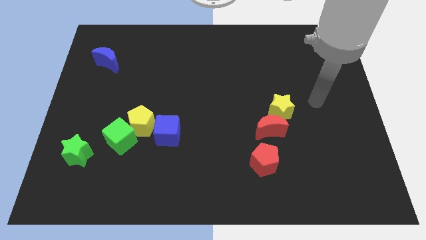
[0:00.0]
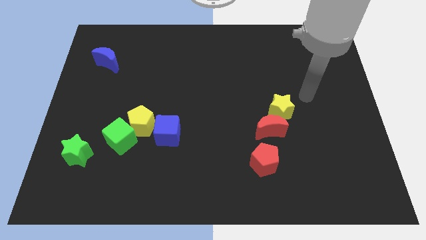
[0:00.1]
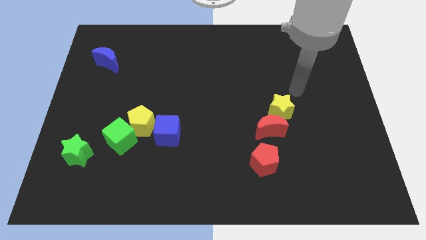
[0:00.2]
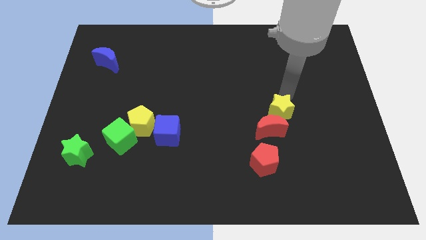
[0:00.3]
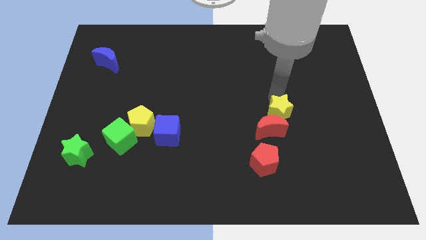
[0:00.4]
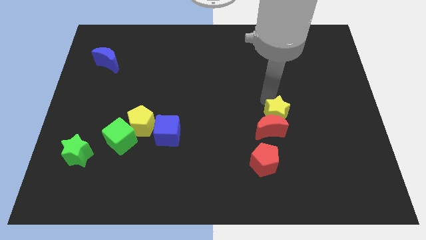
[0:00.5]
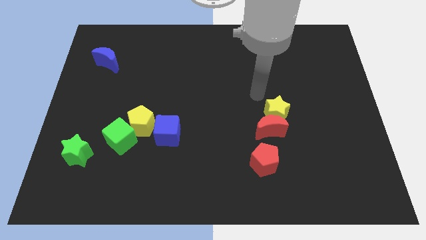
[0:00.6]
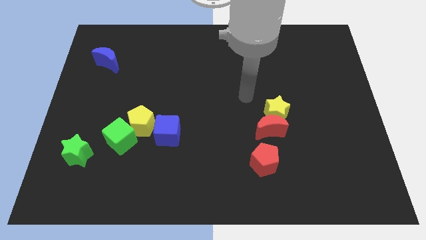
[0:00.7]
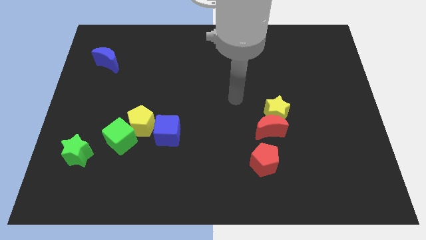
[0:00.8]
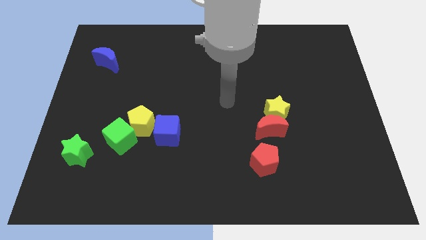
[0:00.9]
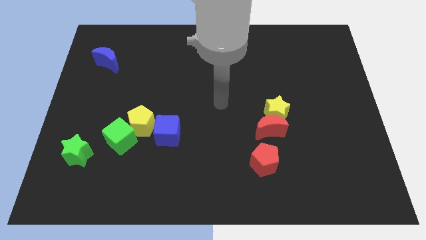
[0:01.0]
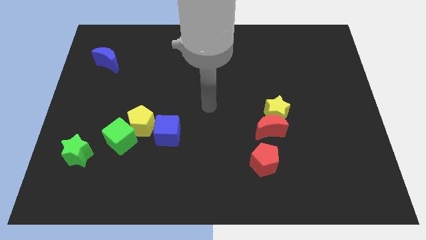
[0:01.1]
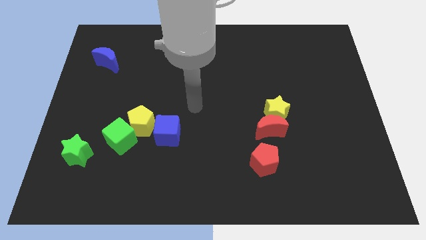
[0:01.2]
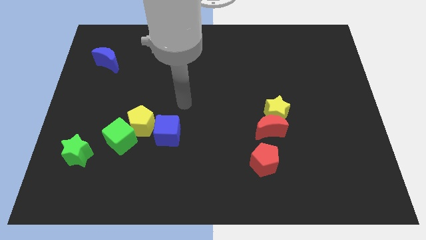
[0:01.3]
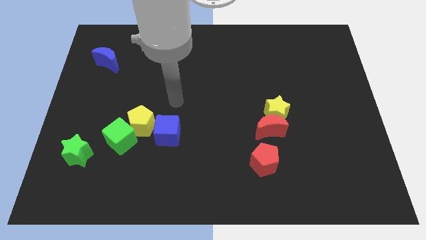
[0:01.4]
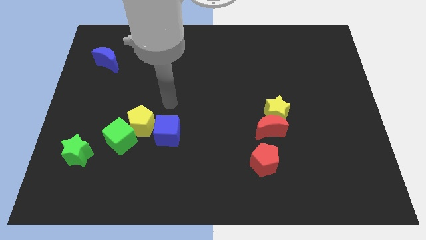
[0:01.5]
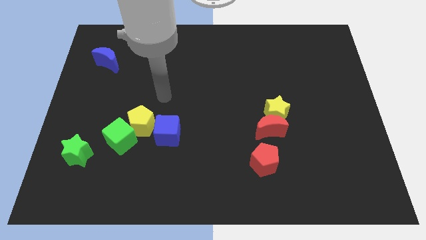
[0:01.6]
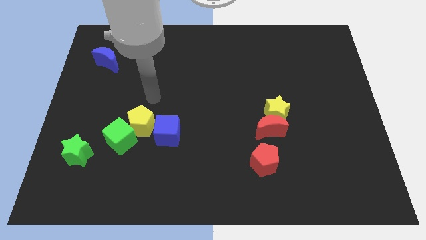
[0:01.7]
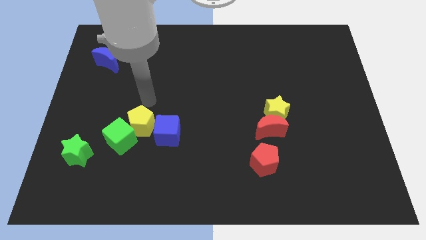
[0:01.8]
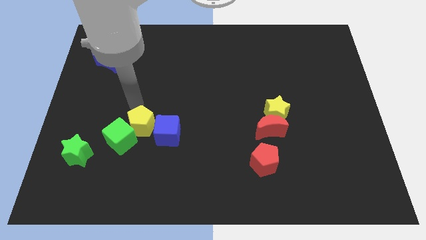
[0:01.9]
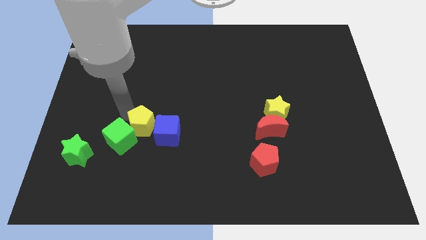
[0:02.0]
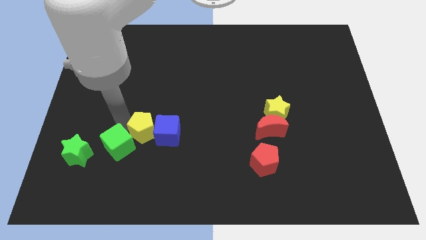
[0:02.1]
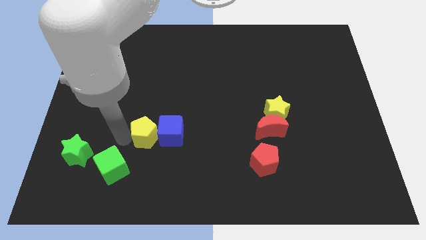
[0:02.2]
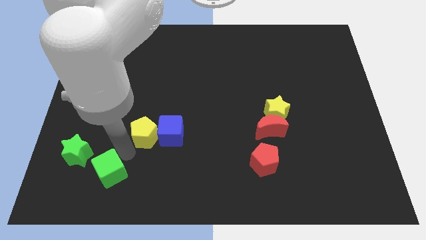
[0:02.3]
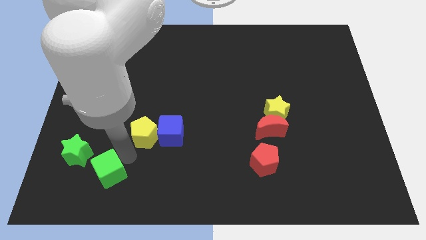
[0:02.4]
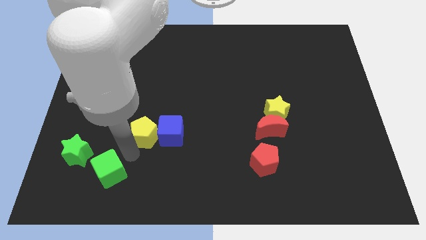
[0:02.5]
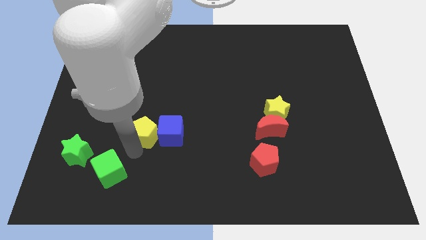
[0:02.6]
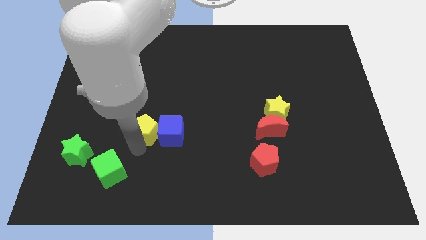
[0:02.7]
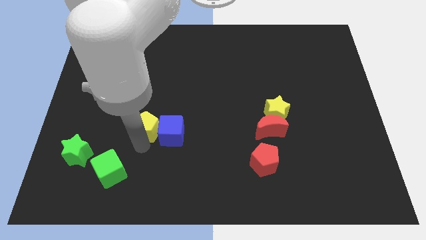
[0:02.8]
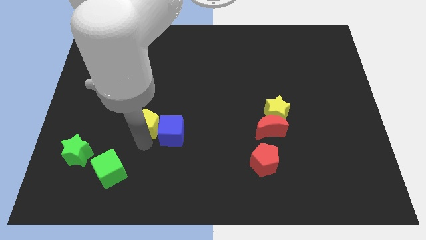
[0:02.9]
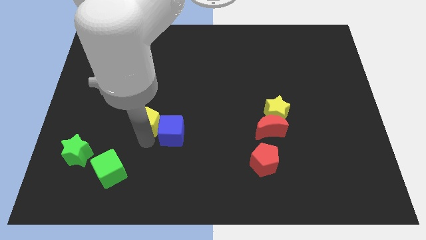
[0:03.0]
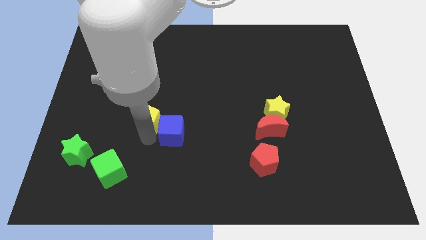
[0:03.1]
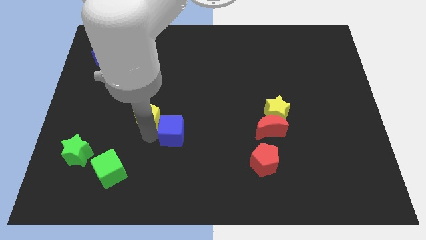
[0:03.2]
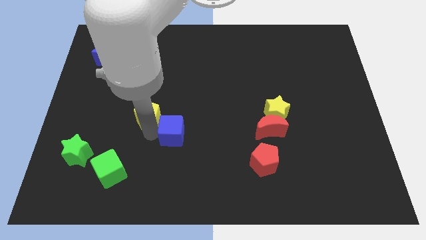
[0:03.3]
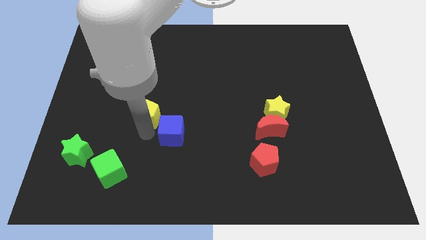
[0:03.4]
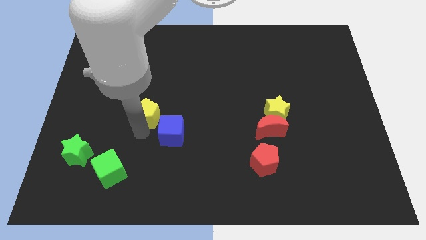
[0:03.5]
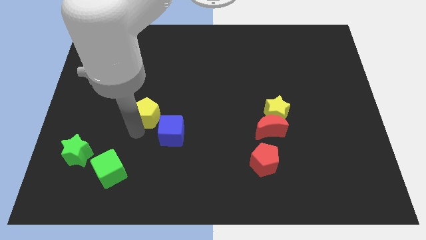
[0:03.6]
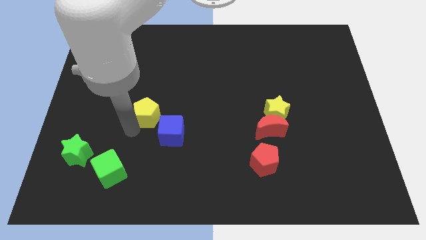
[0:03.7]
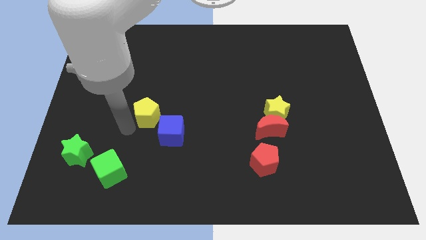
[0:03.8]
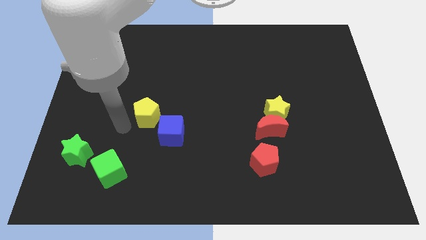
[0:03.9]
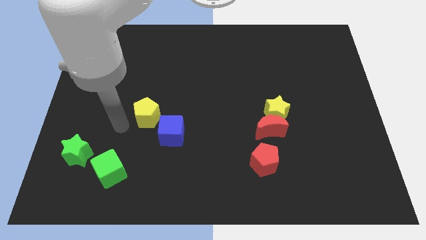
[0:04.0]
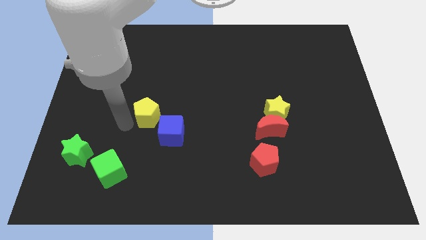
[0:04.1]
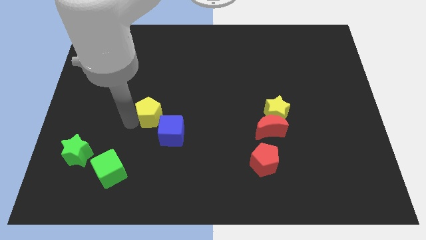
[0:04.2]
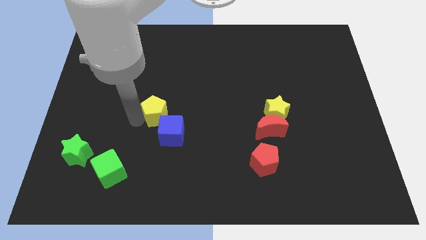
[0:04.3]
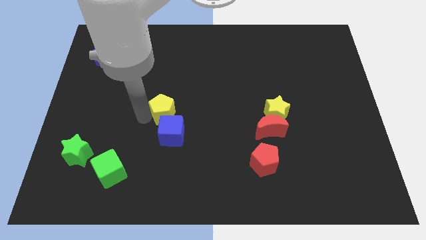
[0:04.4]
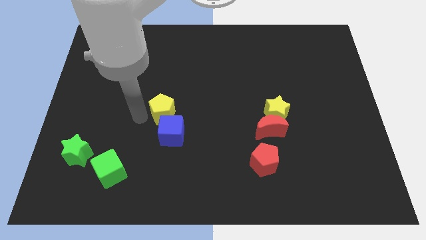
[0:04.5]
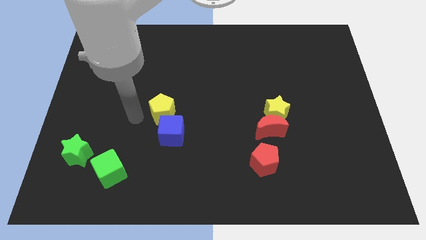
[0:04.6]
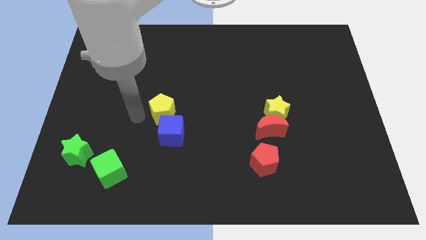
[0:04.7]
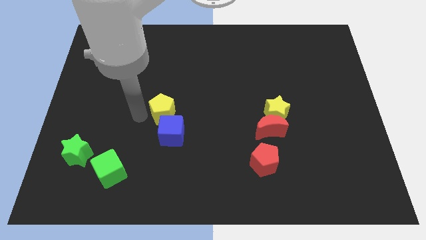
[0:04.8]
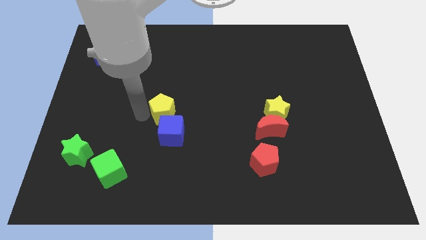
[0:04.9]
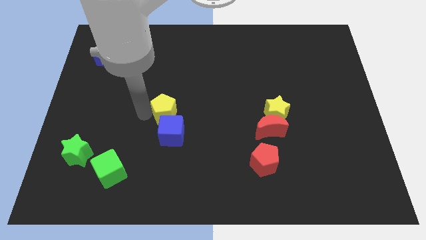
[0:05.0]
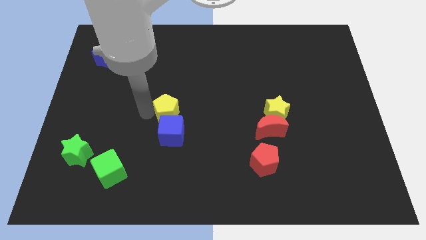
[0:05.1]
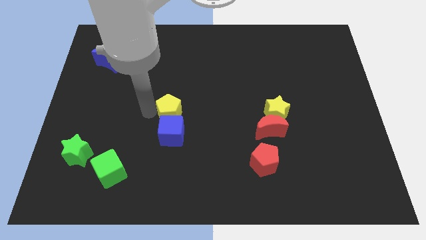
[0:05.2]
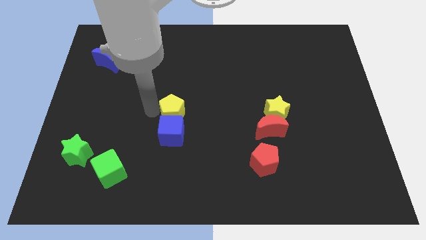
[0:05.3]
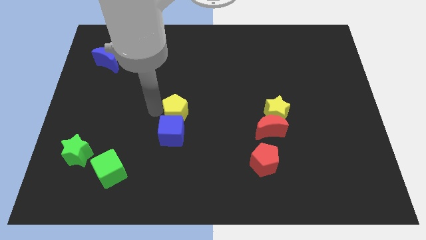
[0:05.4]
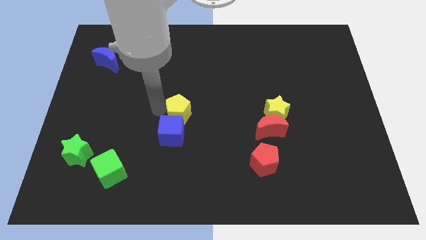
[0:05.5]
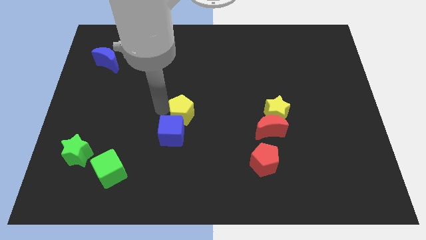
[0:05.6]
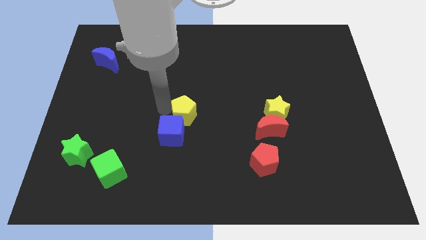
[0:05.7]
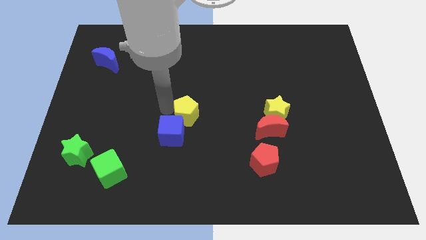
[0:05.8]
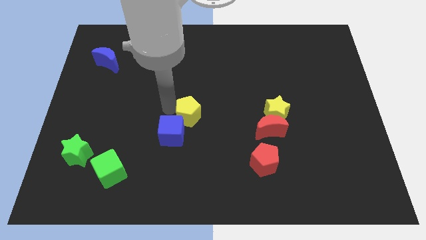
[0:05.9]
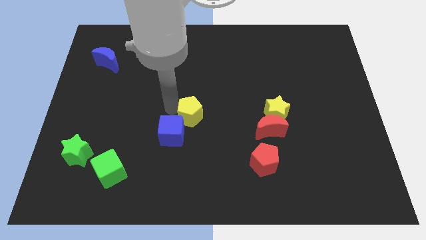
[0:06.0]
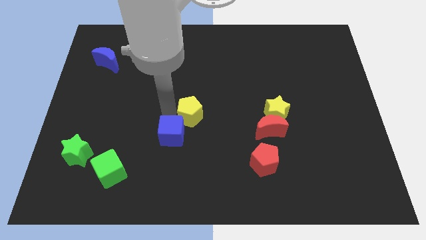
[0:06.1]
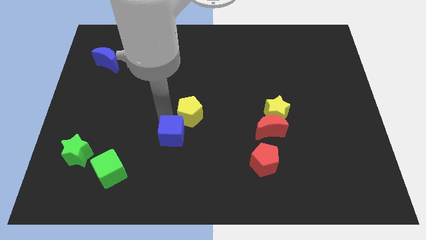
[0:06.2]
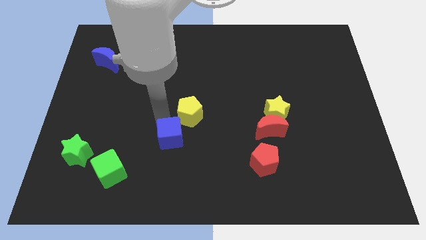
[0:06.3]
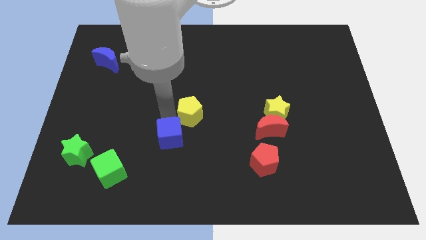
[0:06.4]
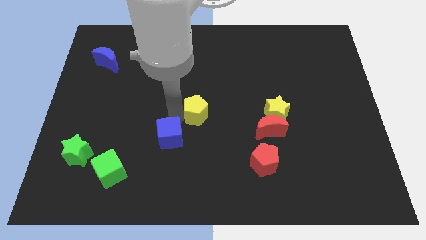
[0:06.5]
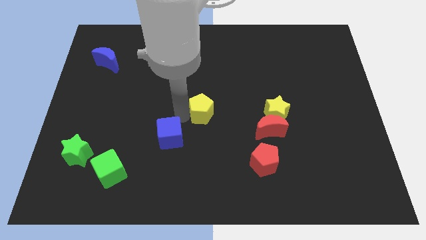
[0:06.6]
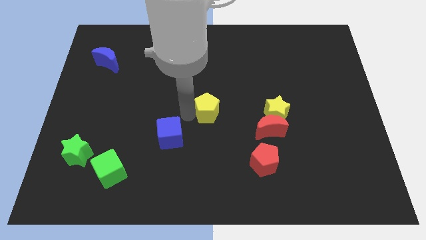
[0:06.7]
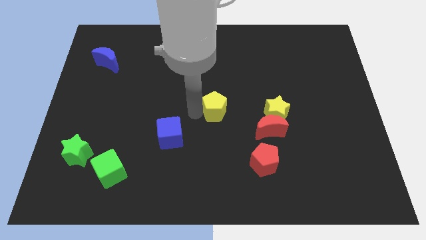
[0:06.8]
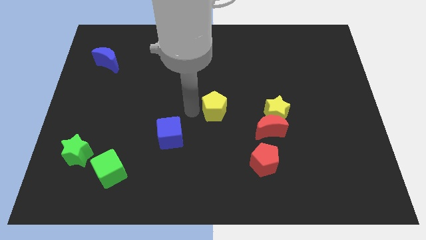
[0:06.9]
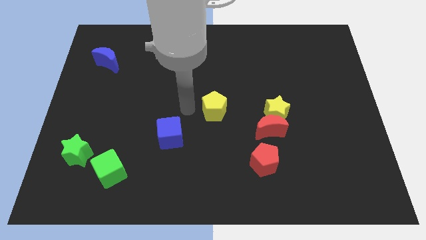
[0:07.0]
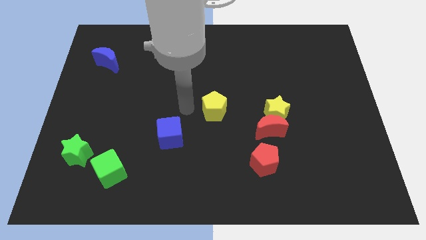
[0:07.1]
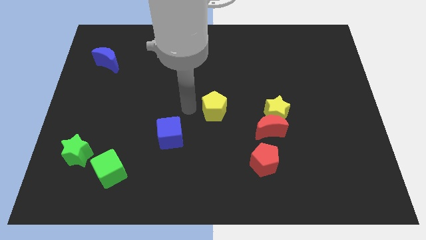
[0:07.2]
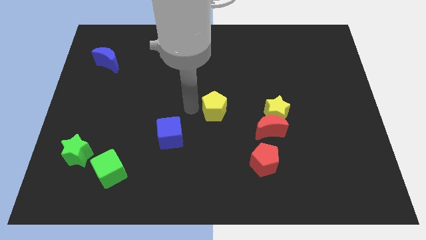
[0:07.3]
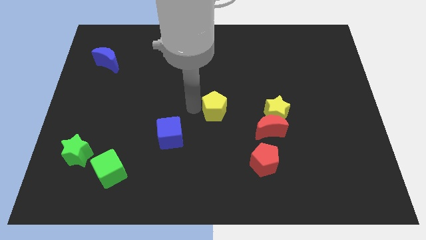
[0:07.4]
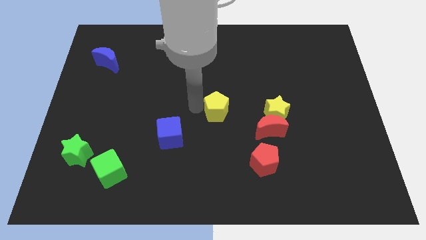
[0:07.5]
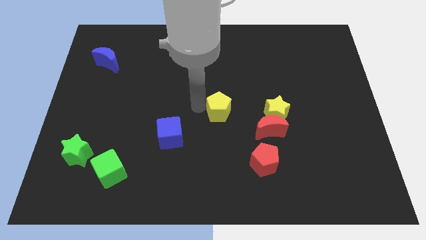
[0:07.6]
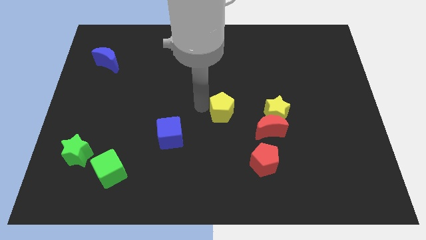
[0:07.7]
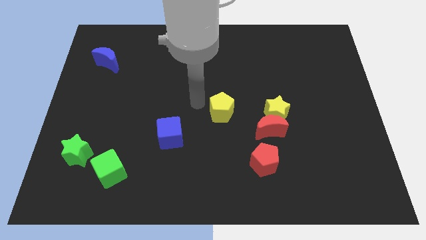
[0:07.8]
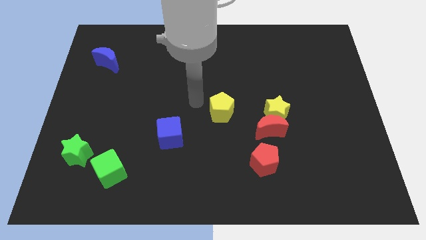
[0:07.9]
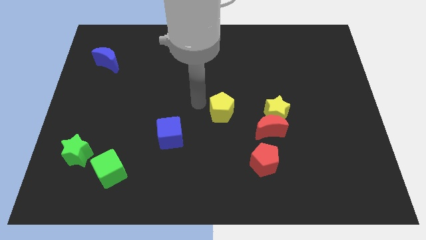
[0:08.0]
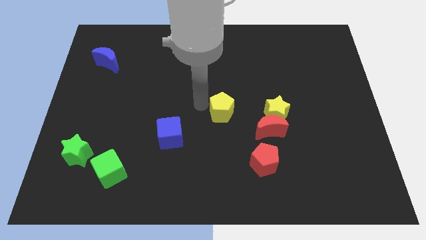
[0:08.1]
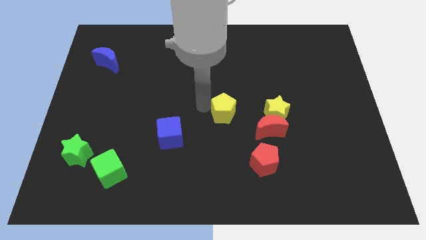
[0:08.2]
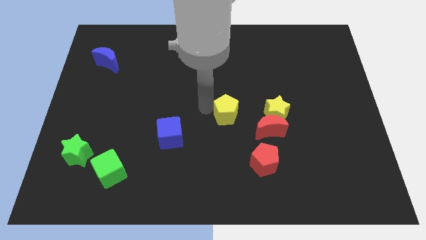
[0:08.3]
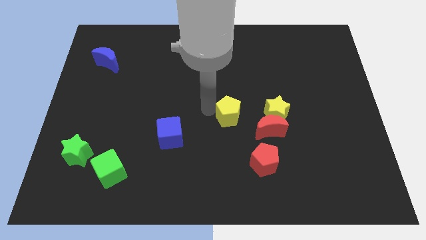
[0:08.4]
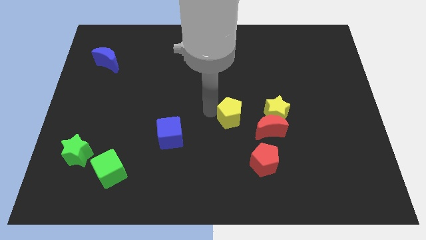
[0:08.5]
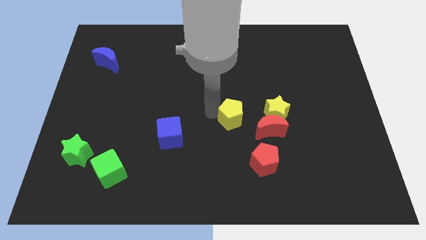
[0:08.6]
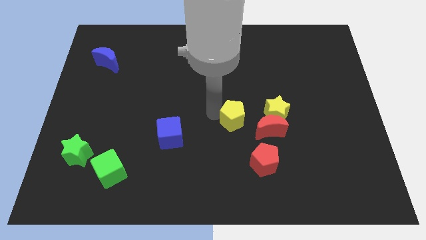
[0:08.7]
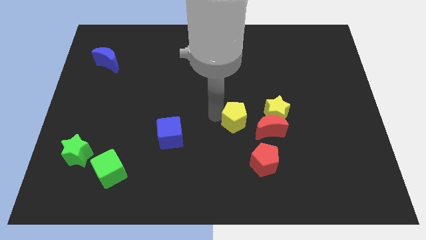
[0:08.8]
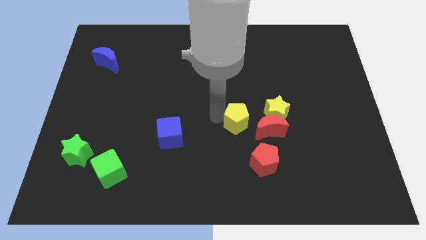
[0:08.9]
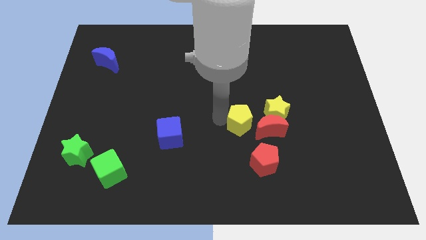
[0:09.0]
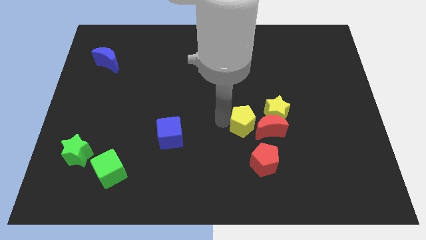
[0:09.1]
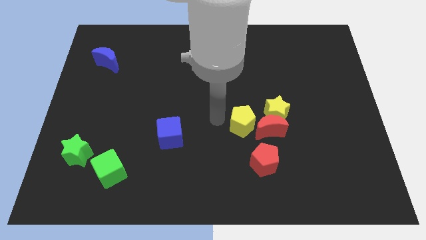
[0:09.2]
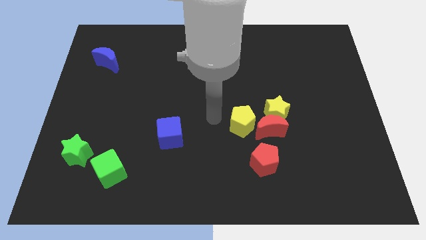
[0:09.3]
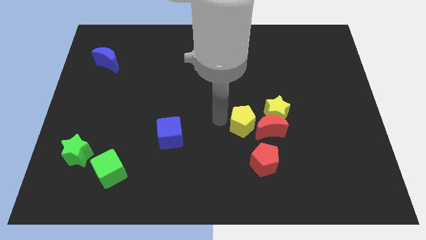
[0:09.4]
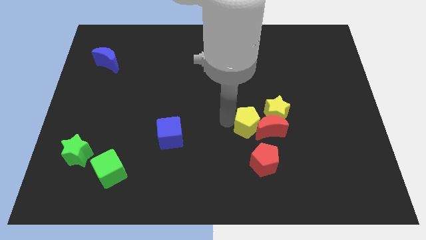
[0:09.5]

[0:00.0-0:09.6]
push the yellow pentagon next to the red moon
